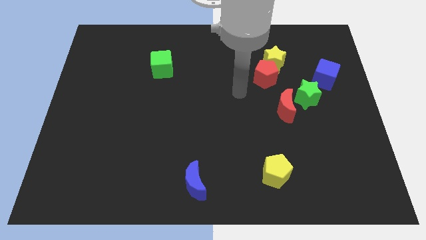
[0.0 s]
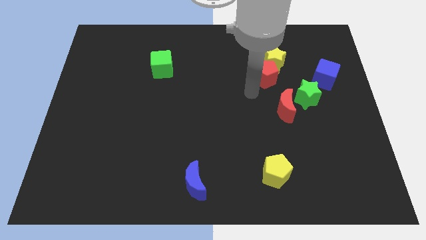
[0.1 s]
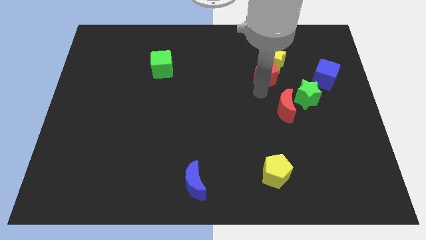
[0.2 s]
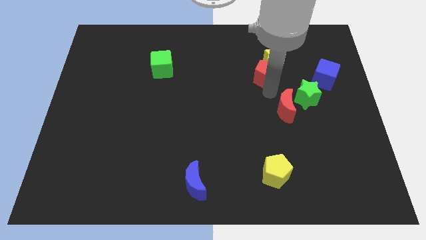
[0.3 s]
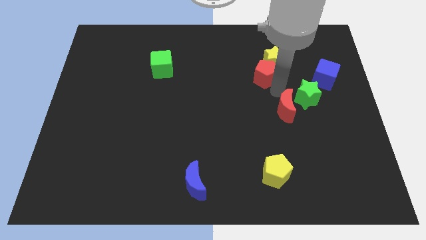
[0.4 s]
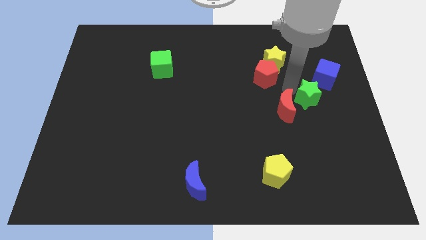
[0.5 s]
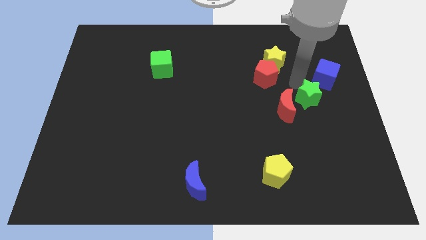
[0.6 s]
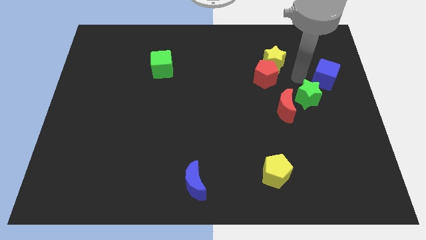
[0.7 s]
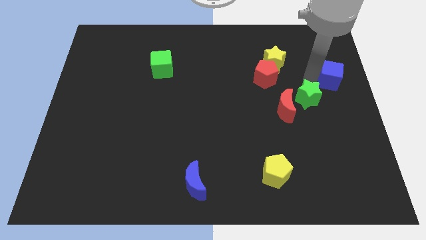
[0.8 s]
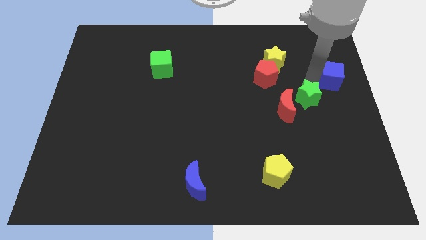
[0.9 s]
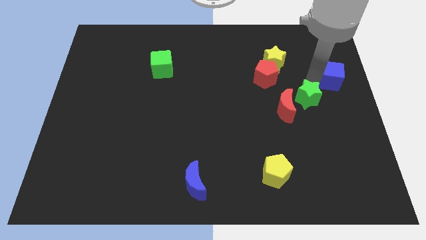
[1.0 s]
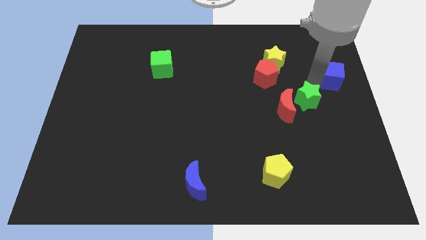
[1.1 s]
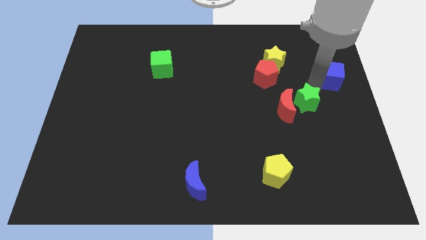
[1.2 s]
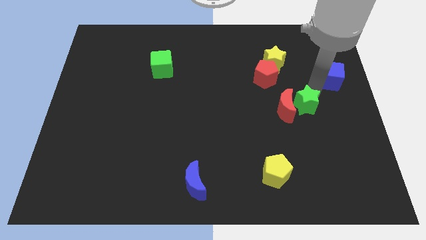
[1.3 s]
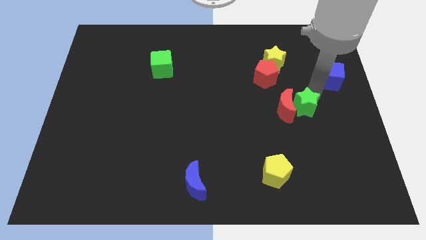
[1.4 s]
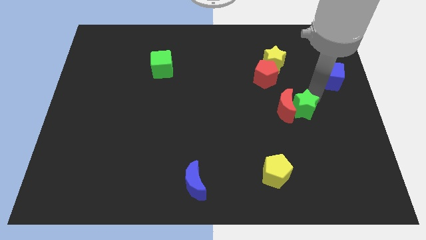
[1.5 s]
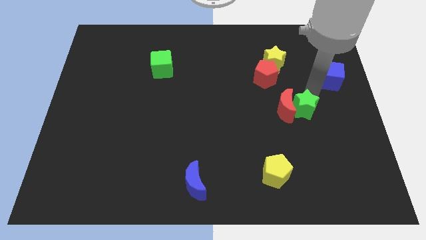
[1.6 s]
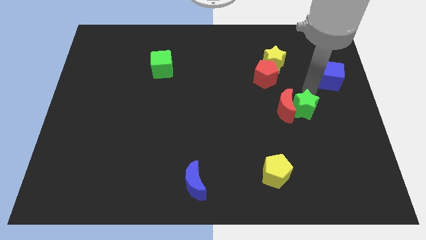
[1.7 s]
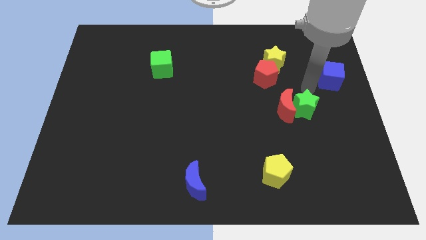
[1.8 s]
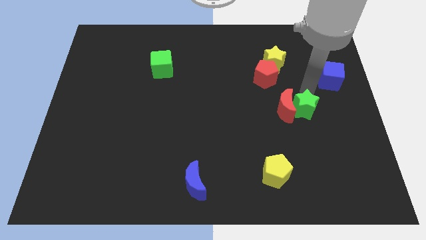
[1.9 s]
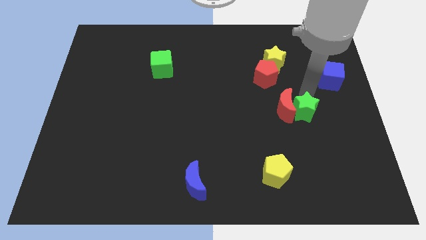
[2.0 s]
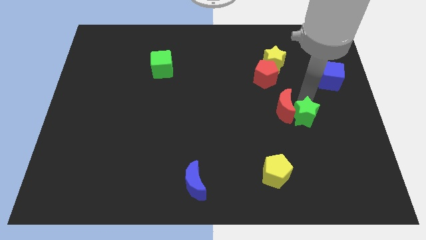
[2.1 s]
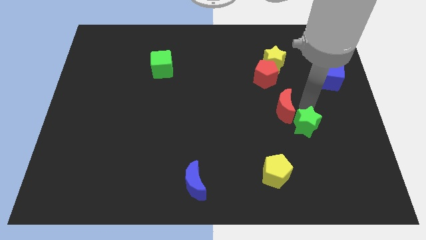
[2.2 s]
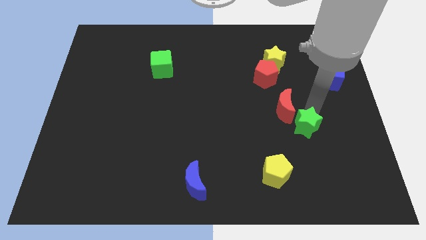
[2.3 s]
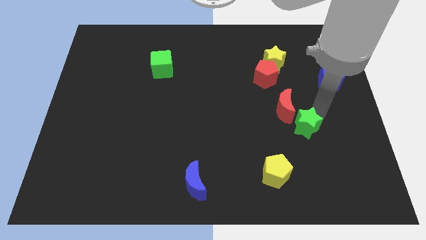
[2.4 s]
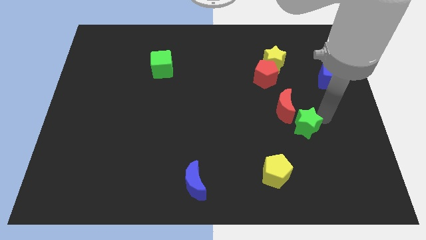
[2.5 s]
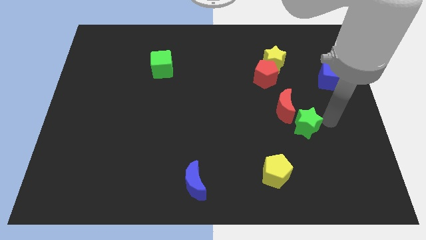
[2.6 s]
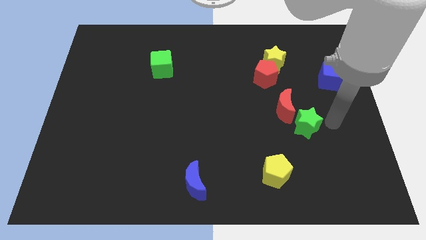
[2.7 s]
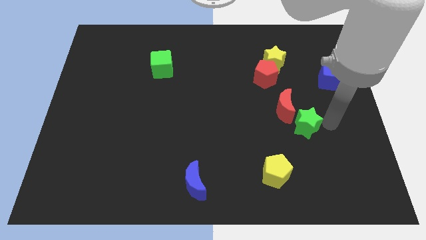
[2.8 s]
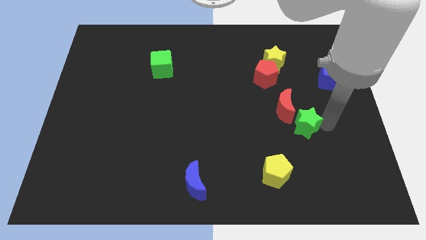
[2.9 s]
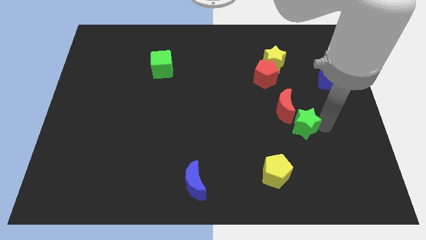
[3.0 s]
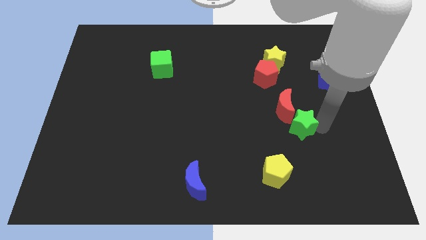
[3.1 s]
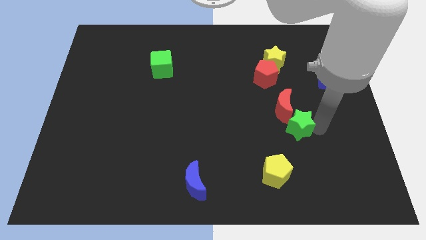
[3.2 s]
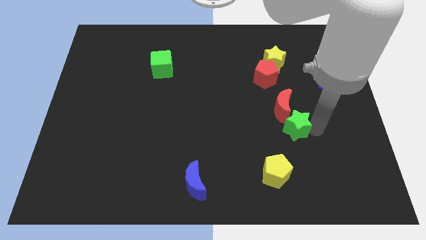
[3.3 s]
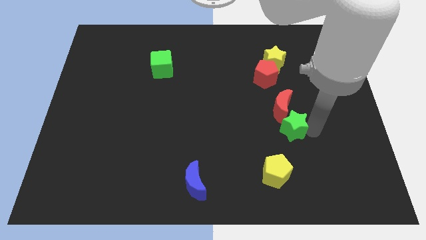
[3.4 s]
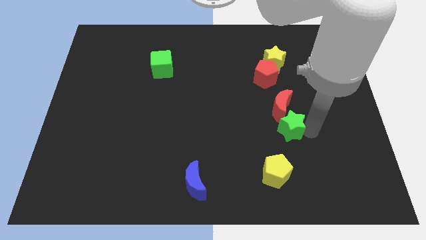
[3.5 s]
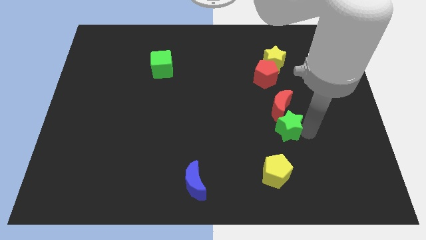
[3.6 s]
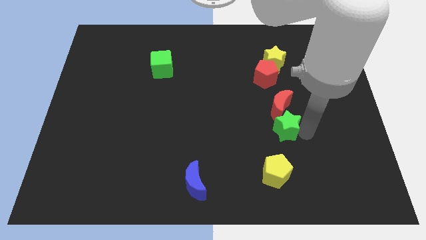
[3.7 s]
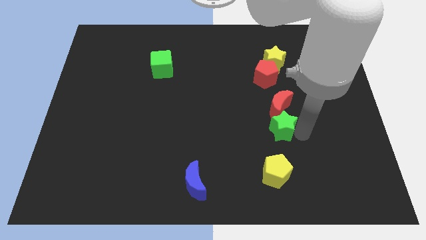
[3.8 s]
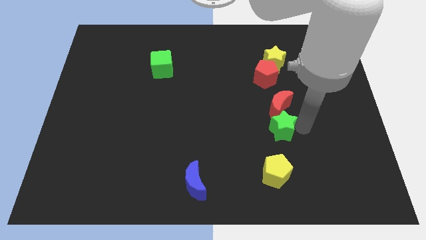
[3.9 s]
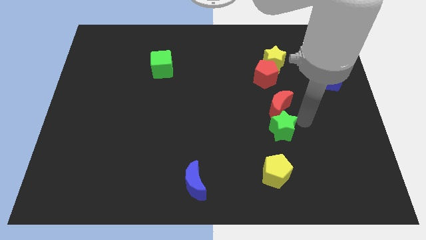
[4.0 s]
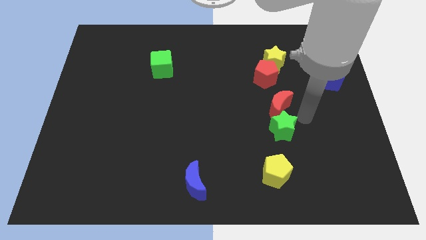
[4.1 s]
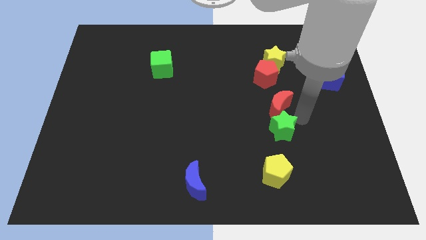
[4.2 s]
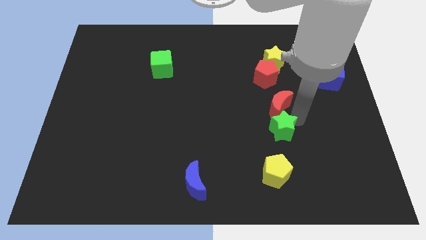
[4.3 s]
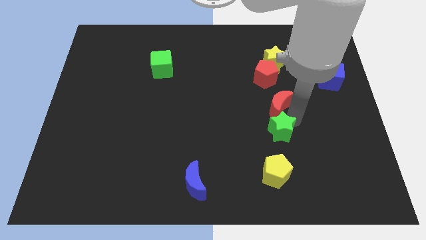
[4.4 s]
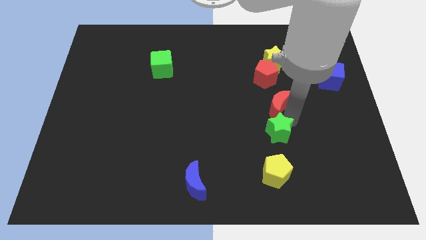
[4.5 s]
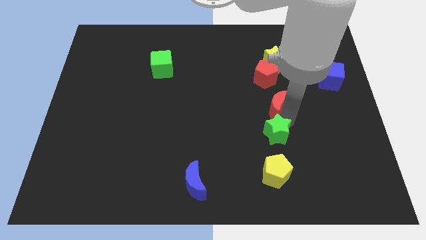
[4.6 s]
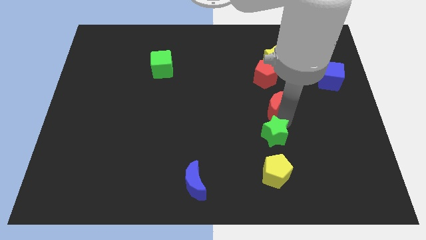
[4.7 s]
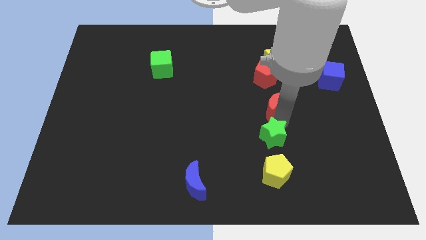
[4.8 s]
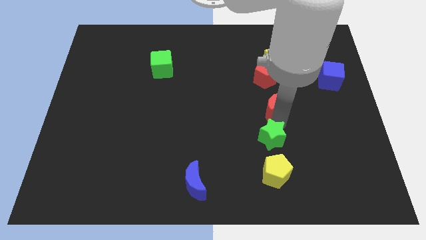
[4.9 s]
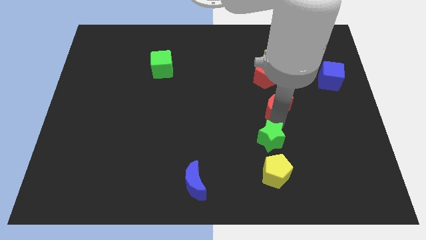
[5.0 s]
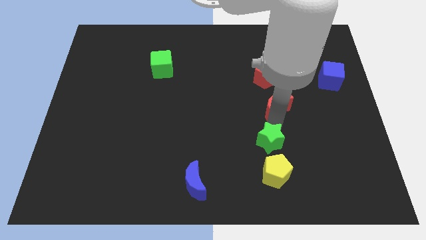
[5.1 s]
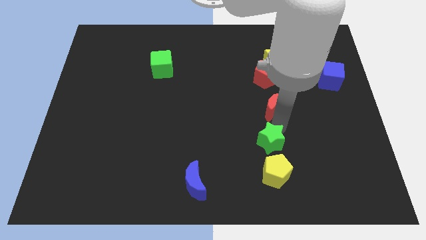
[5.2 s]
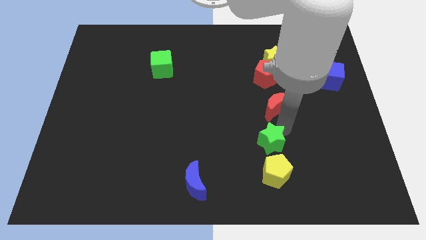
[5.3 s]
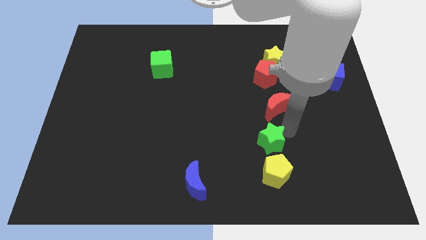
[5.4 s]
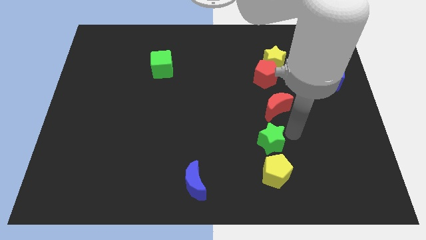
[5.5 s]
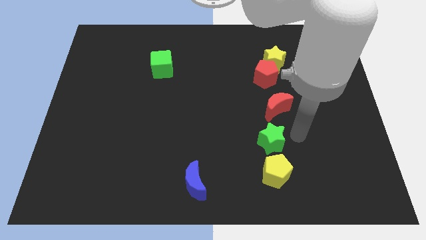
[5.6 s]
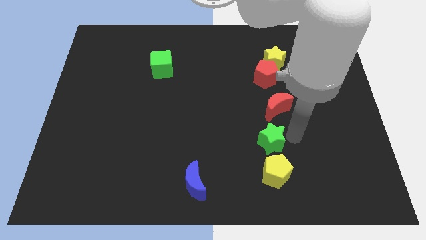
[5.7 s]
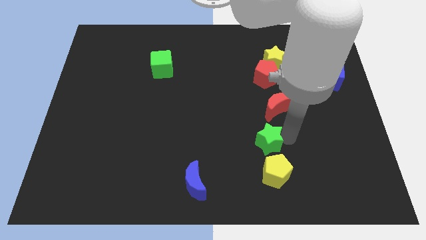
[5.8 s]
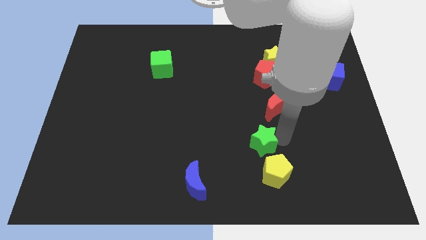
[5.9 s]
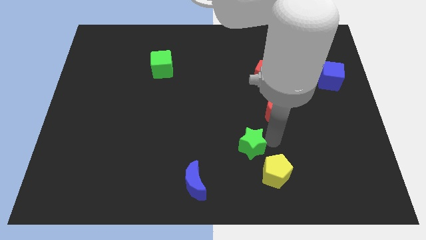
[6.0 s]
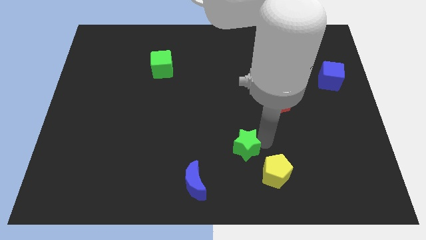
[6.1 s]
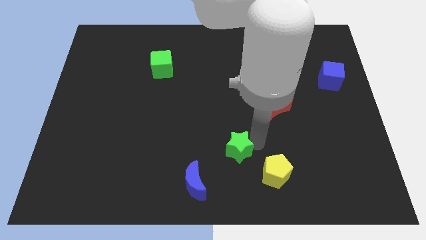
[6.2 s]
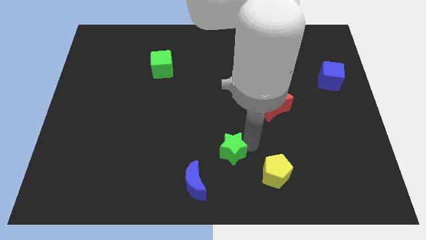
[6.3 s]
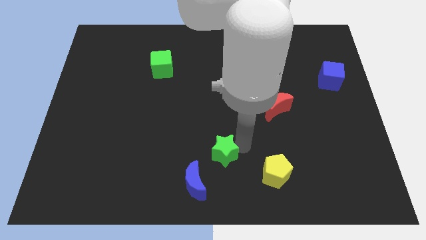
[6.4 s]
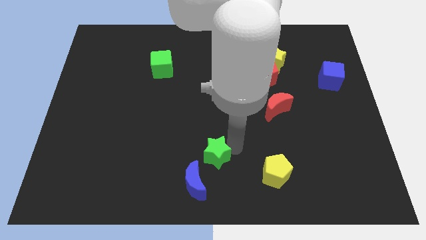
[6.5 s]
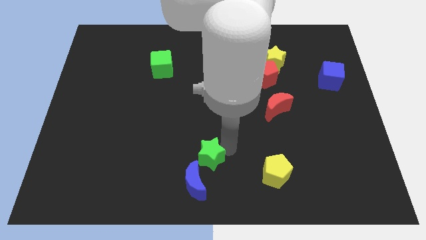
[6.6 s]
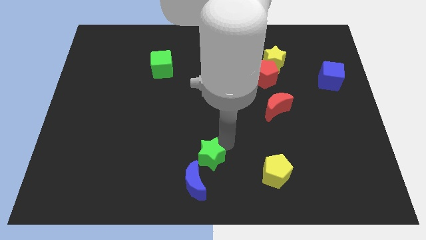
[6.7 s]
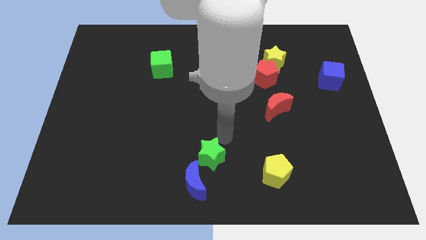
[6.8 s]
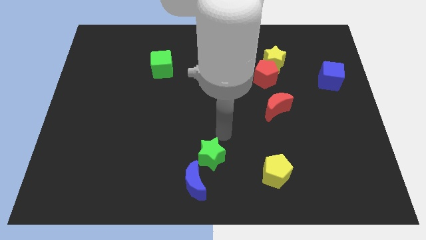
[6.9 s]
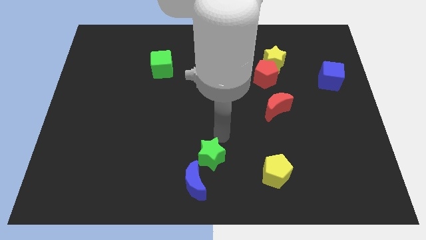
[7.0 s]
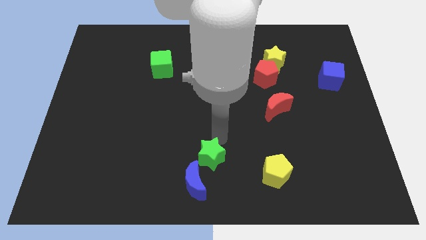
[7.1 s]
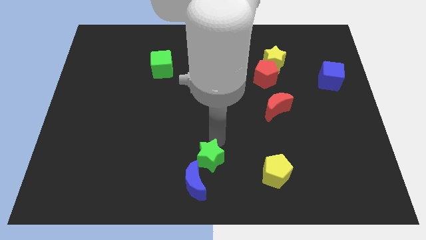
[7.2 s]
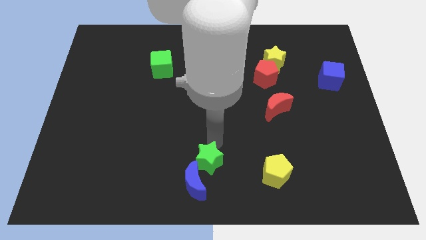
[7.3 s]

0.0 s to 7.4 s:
move the green star to the blue moon
